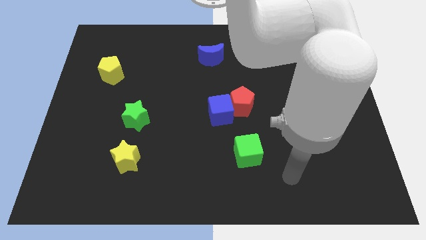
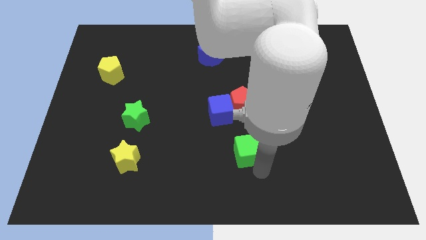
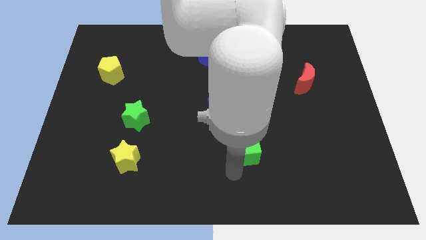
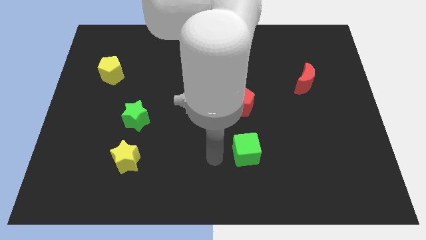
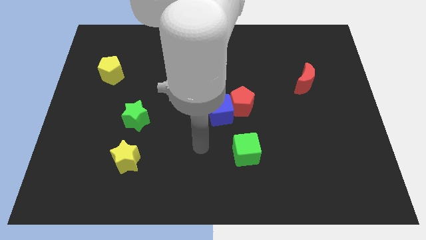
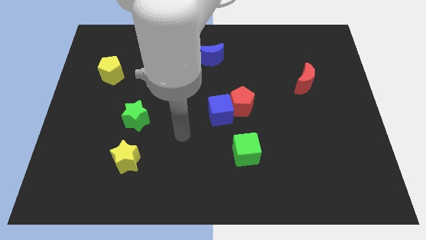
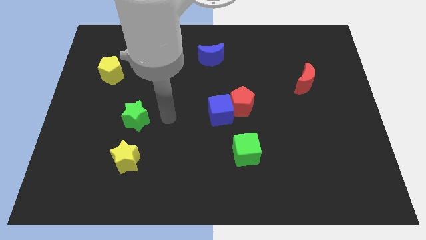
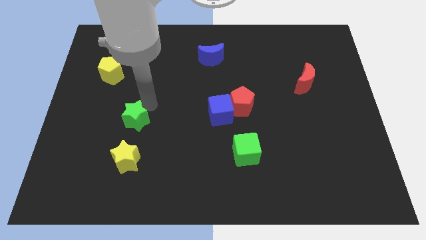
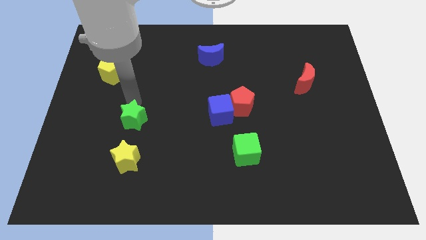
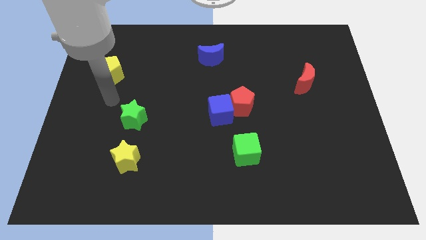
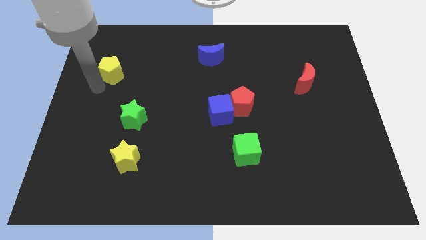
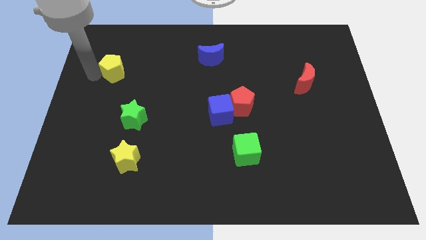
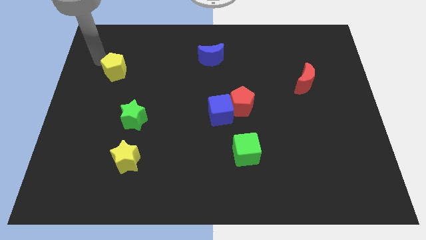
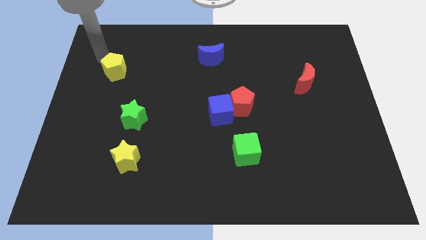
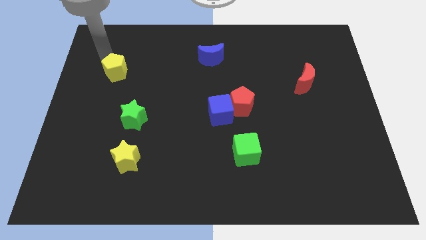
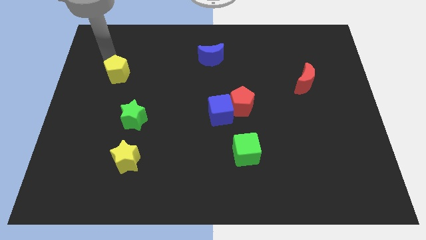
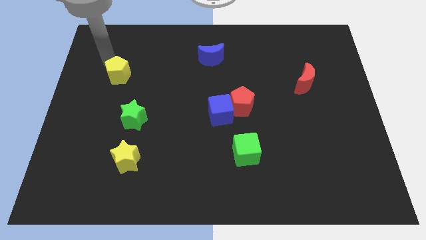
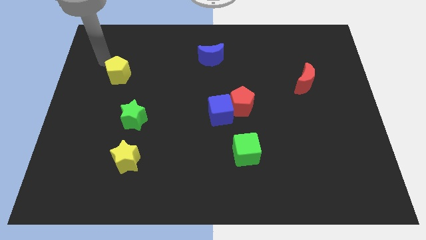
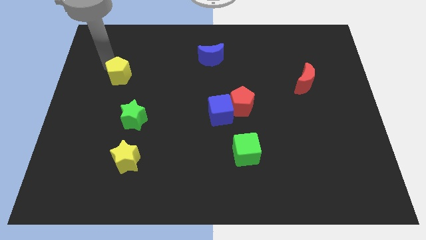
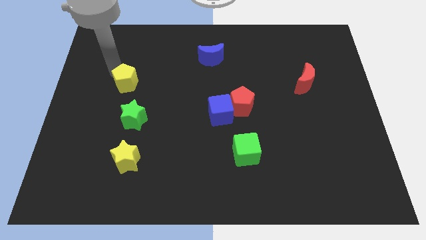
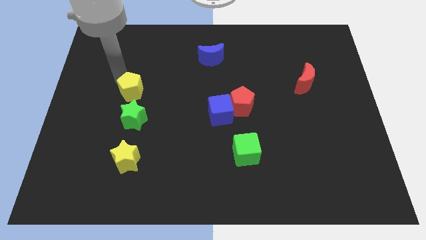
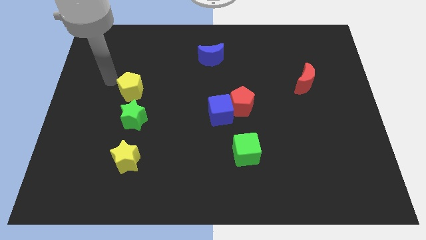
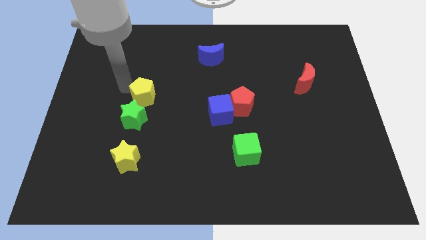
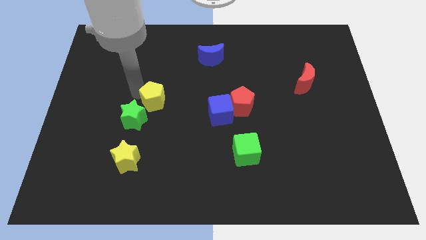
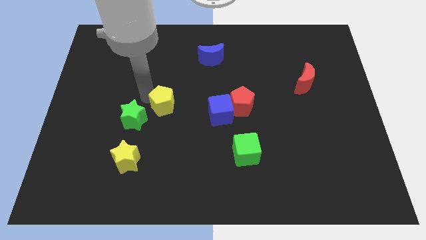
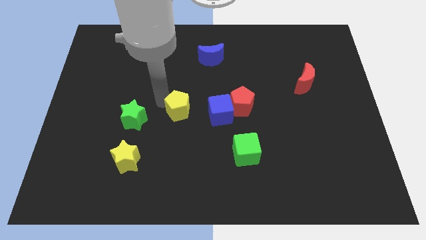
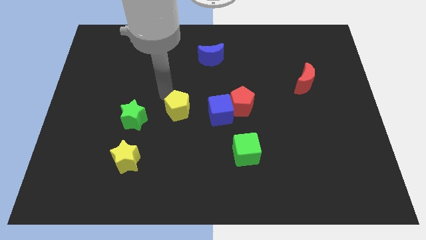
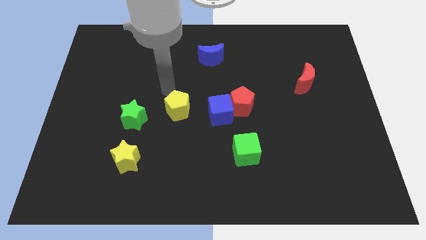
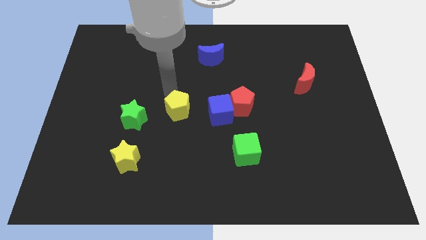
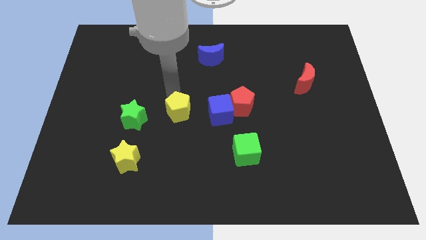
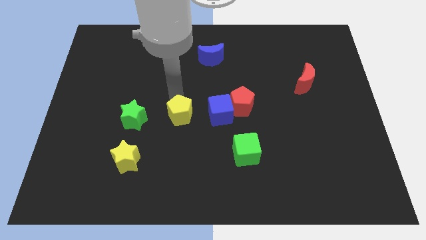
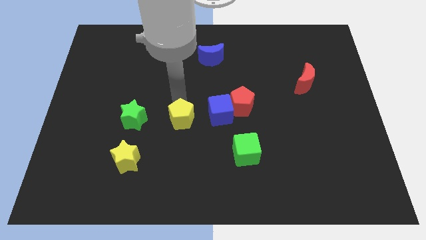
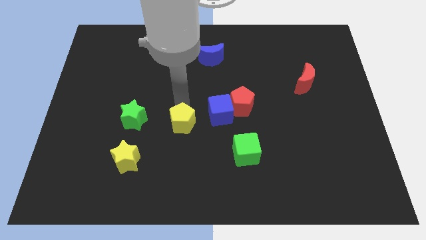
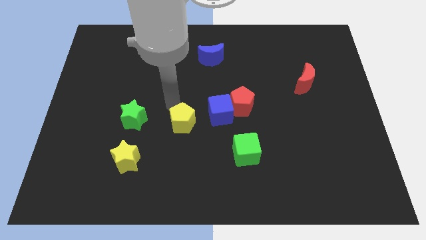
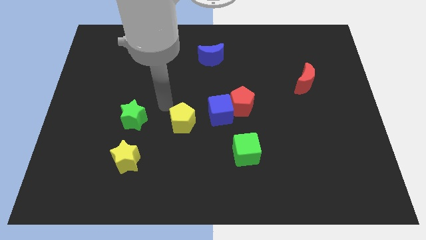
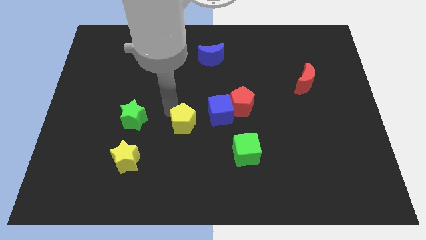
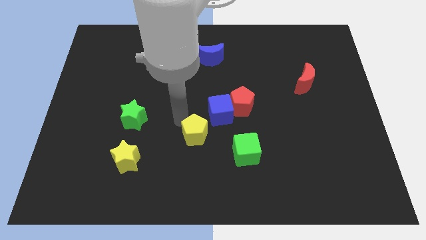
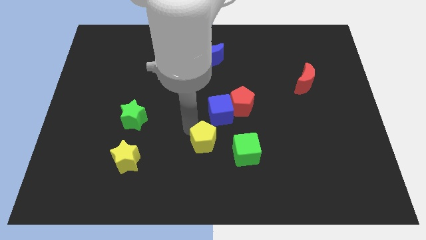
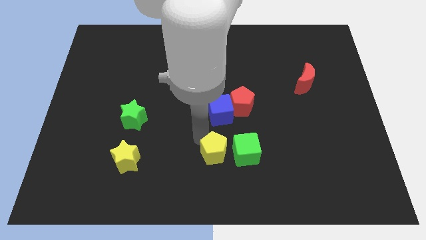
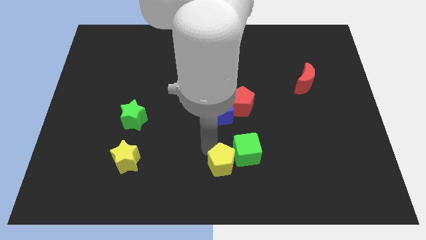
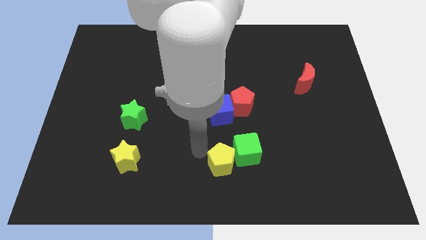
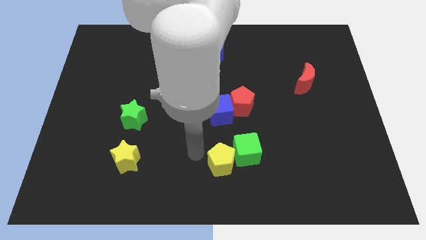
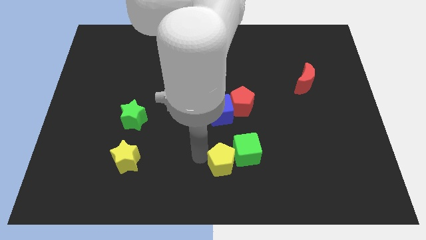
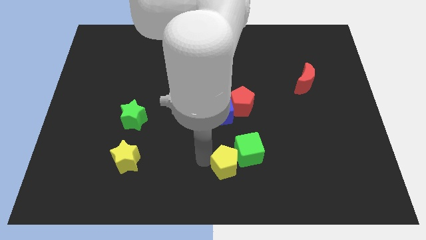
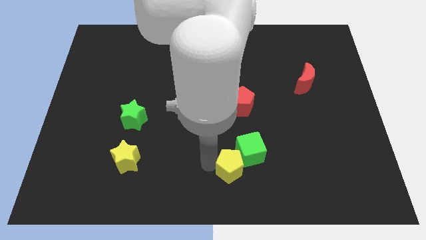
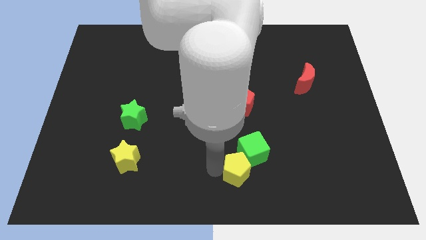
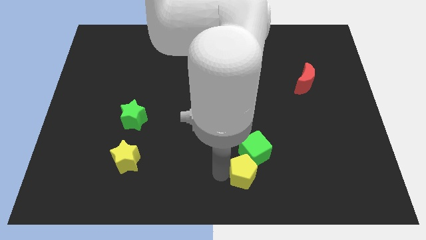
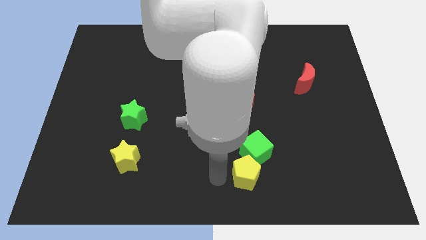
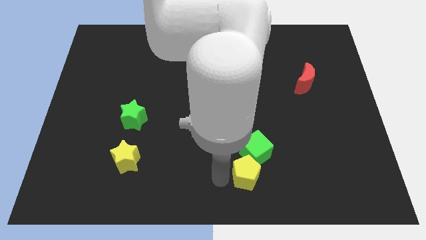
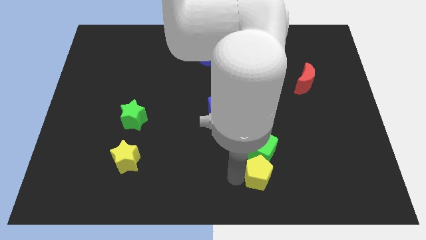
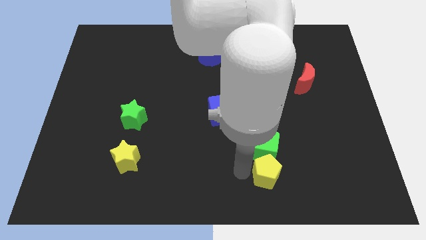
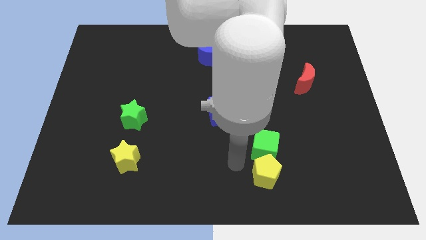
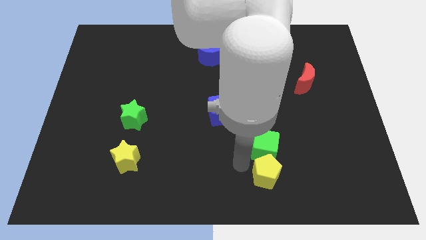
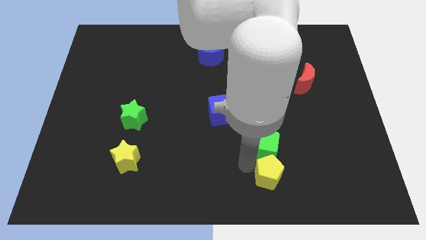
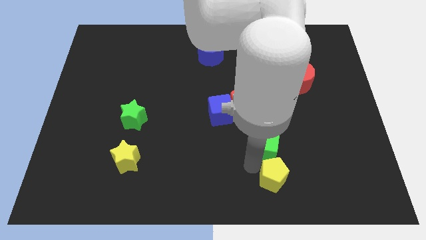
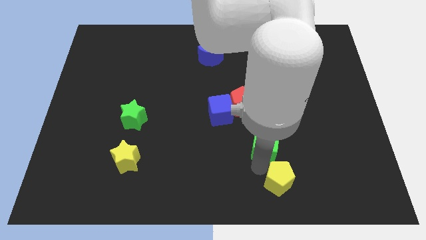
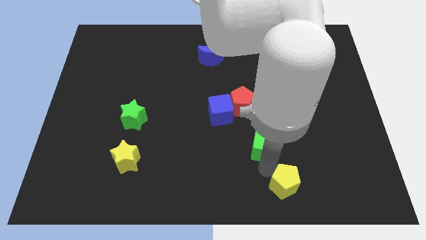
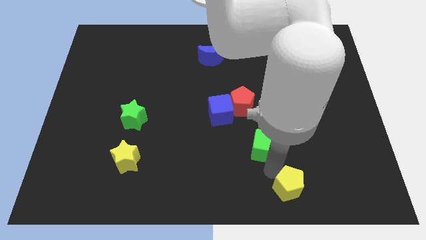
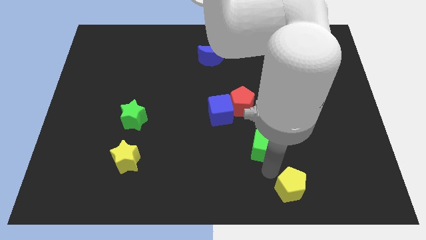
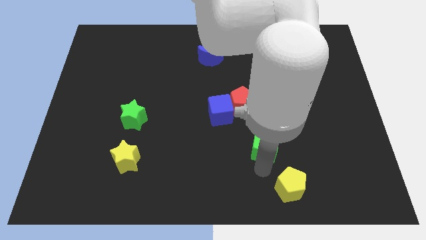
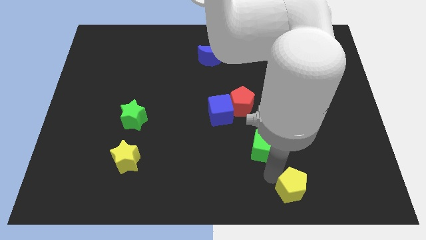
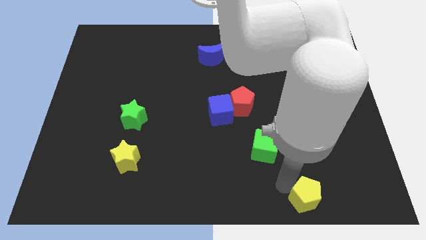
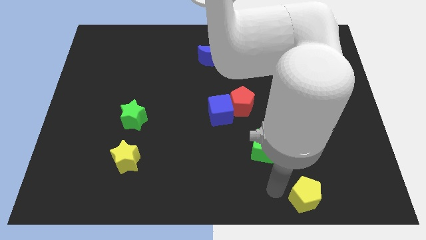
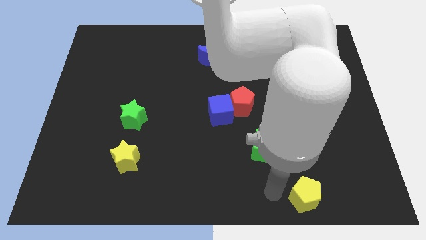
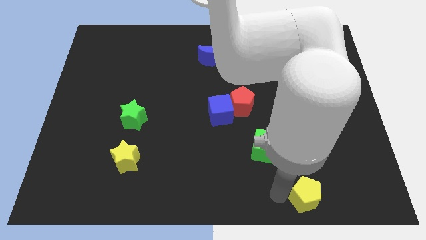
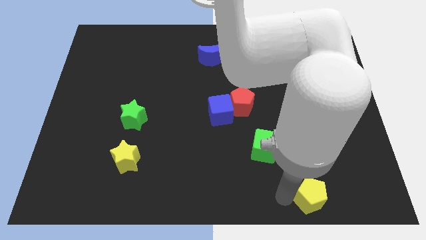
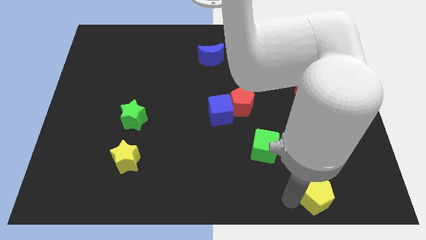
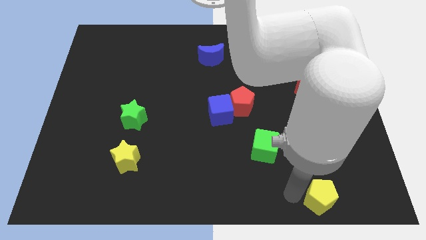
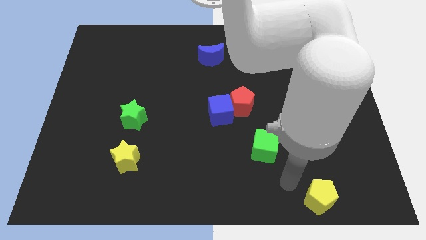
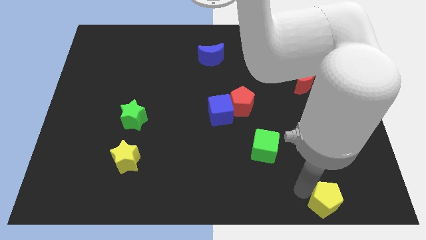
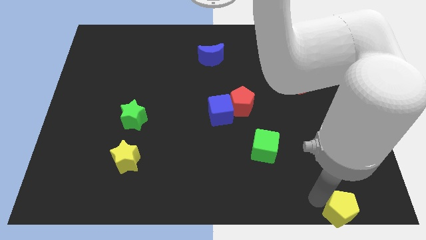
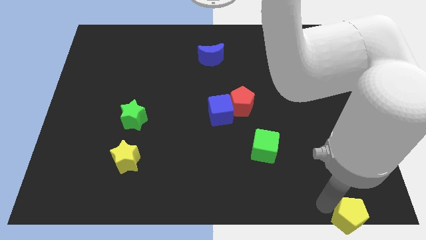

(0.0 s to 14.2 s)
put the yellow pentagon to the bottom right
